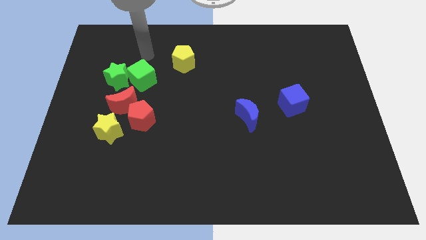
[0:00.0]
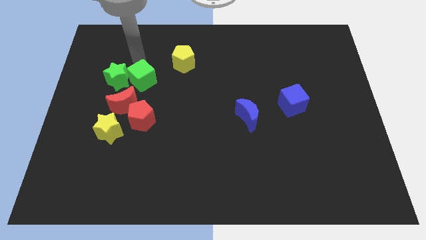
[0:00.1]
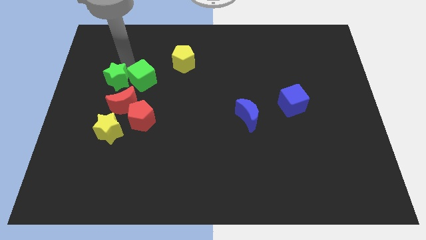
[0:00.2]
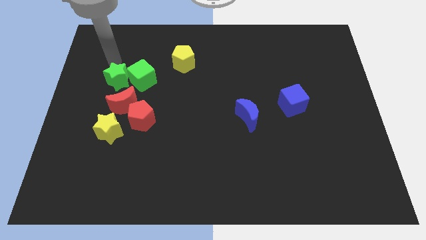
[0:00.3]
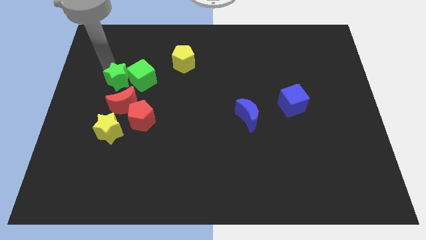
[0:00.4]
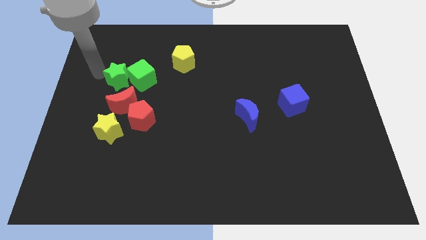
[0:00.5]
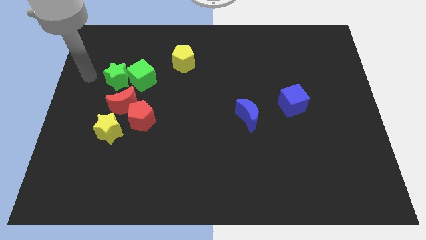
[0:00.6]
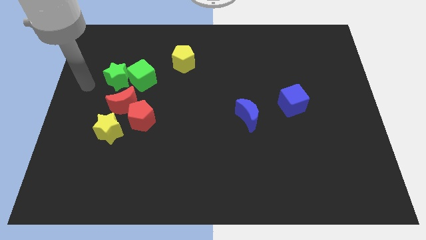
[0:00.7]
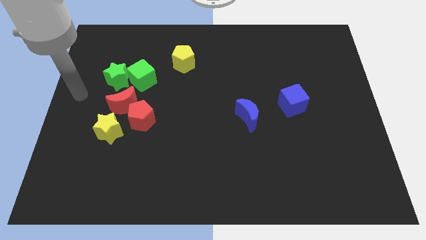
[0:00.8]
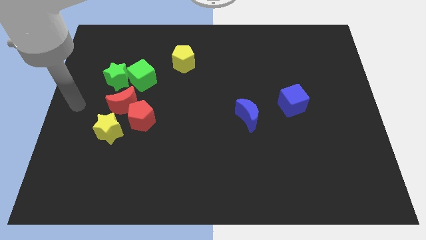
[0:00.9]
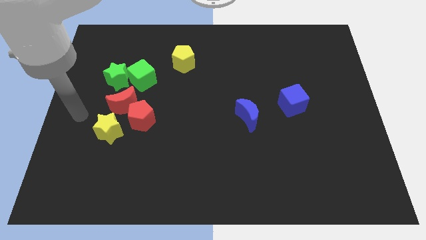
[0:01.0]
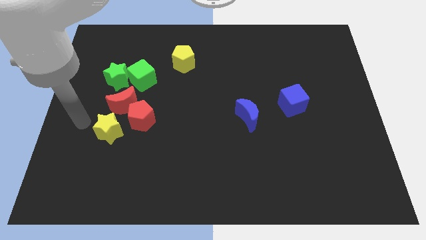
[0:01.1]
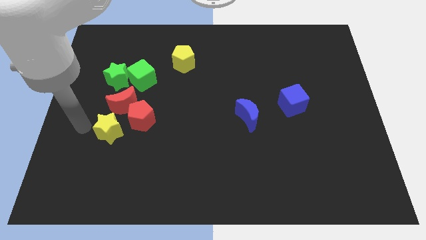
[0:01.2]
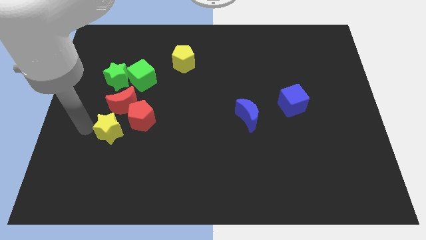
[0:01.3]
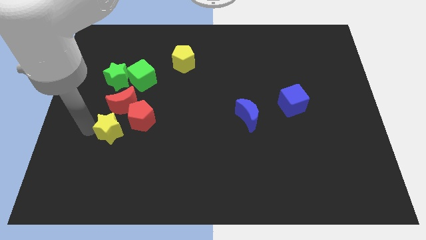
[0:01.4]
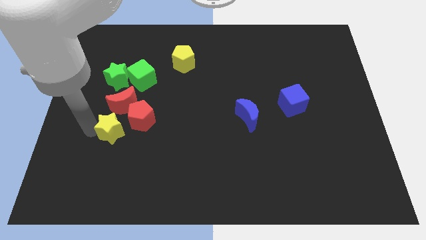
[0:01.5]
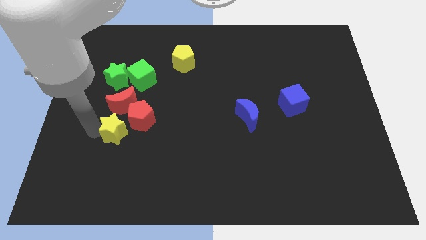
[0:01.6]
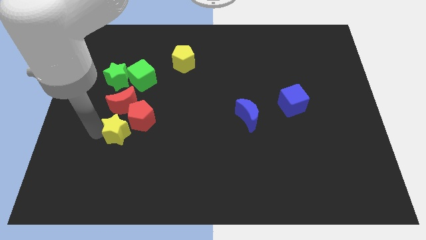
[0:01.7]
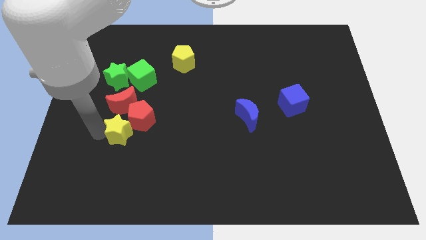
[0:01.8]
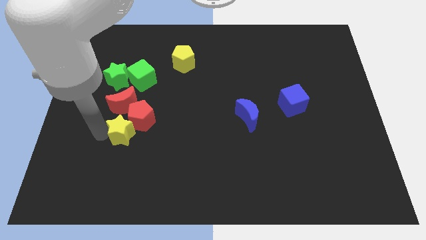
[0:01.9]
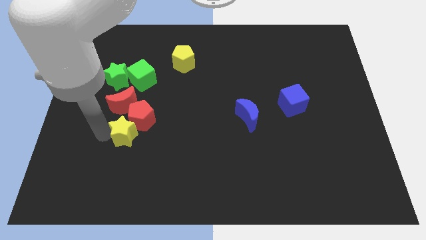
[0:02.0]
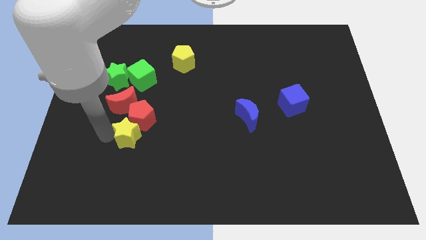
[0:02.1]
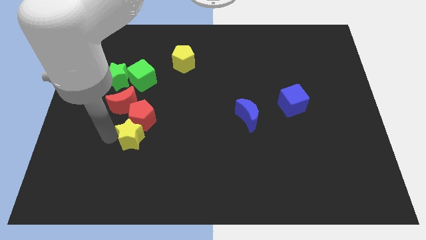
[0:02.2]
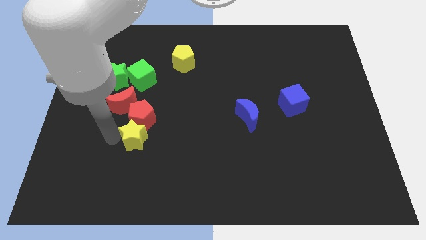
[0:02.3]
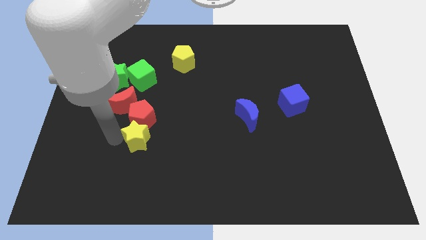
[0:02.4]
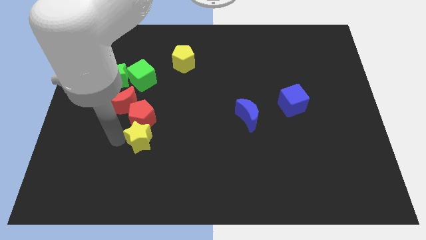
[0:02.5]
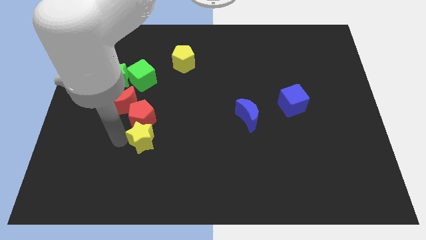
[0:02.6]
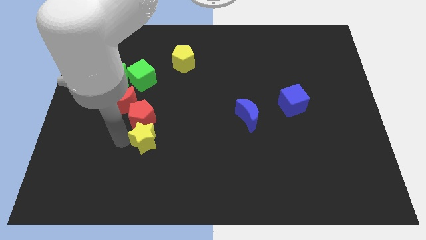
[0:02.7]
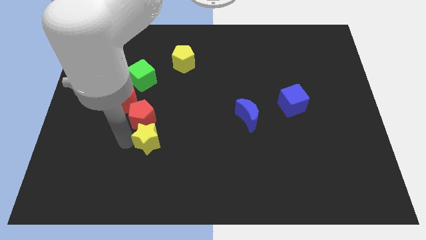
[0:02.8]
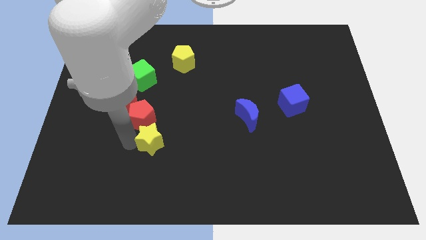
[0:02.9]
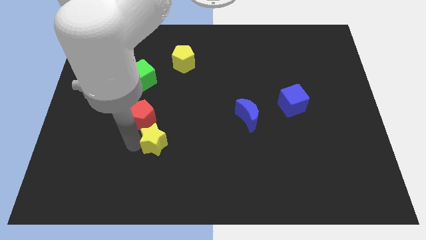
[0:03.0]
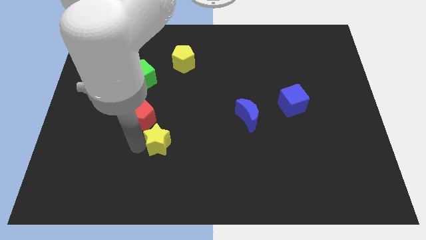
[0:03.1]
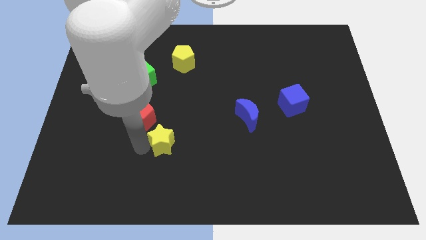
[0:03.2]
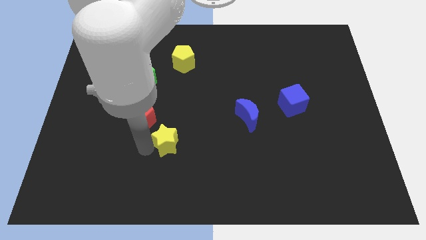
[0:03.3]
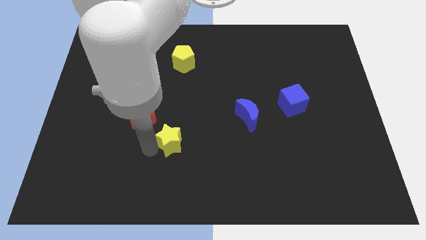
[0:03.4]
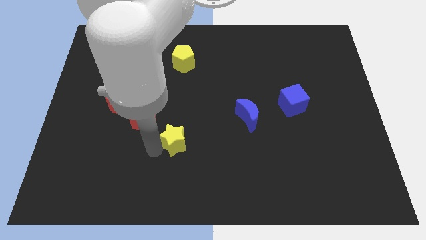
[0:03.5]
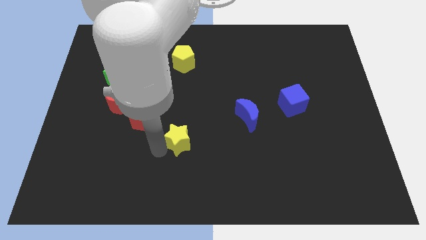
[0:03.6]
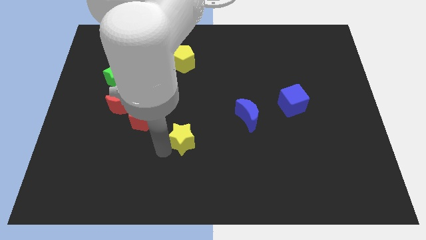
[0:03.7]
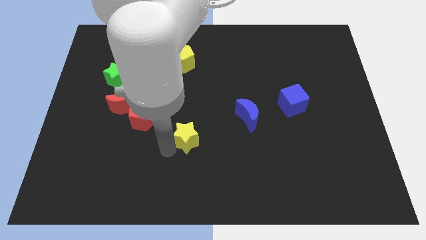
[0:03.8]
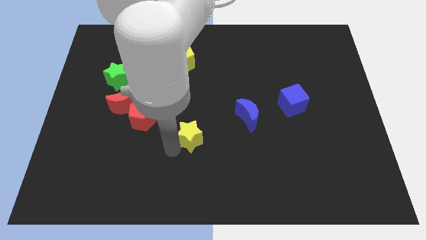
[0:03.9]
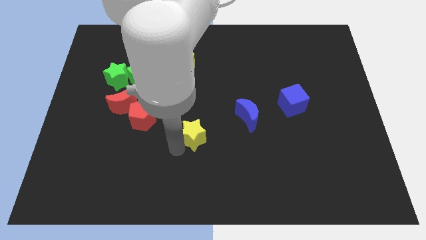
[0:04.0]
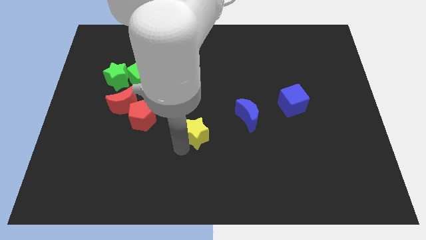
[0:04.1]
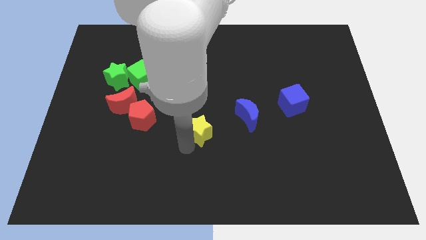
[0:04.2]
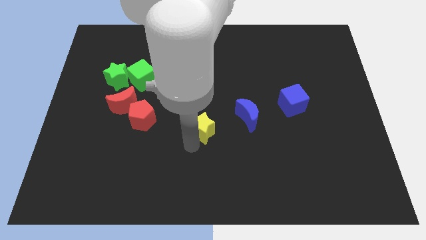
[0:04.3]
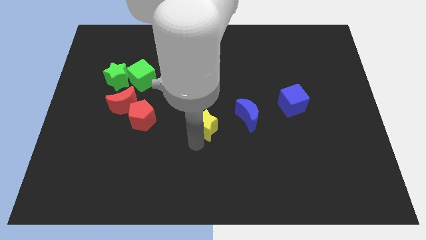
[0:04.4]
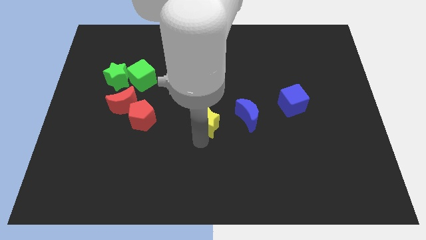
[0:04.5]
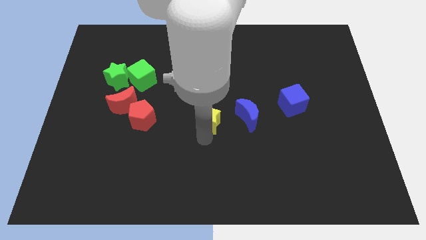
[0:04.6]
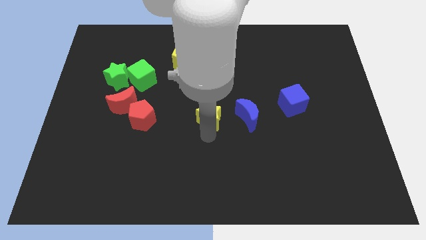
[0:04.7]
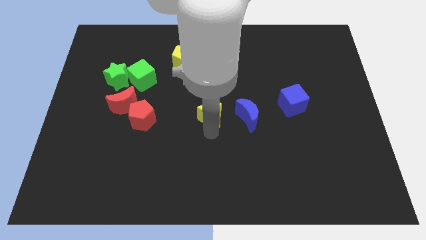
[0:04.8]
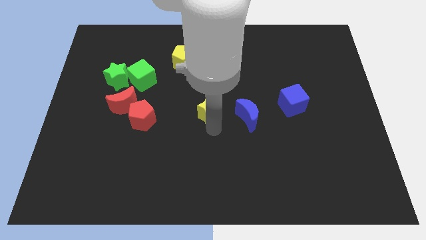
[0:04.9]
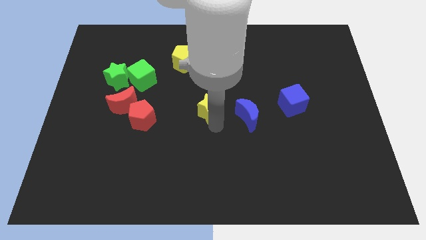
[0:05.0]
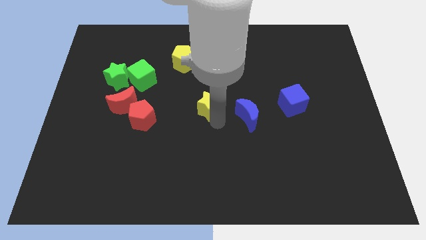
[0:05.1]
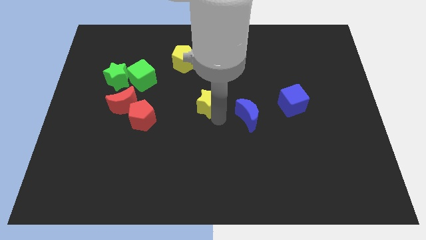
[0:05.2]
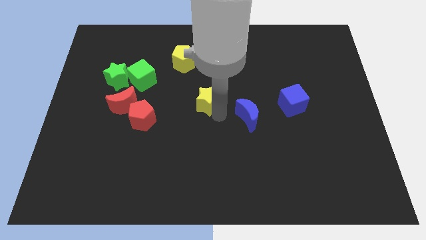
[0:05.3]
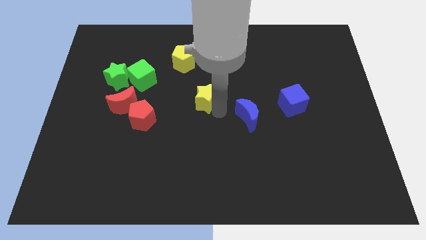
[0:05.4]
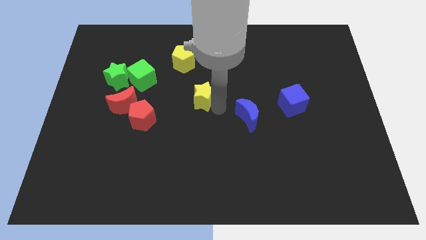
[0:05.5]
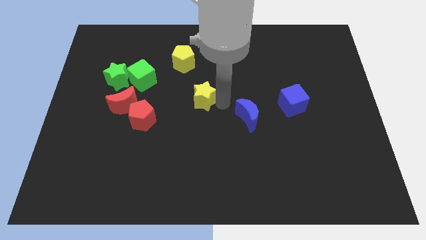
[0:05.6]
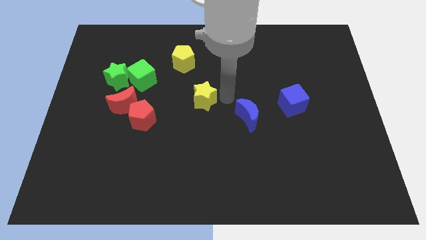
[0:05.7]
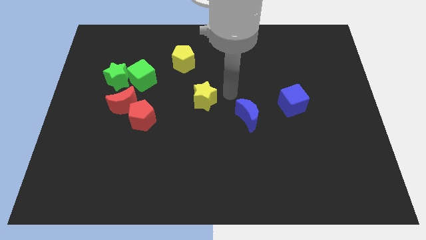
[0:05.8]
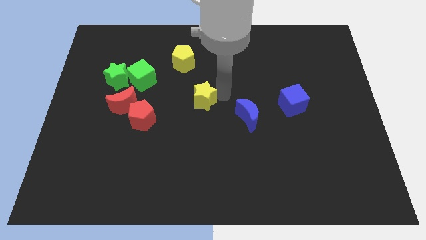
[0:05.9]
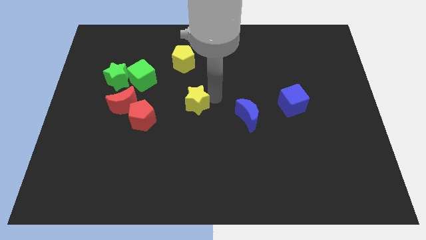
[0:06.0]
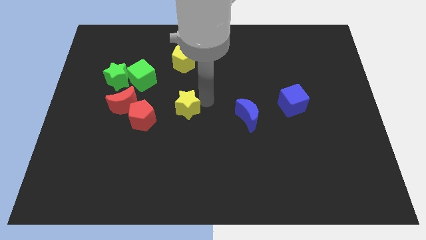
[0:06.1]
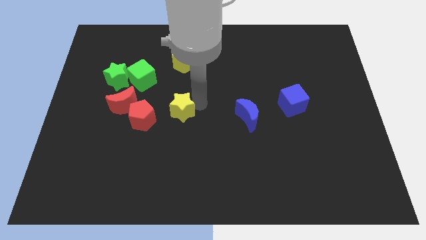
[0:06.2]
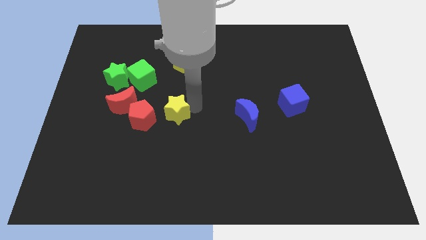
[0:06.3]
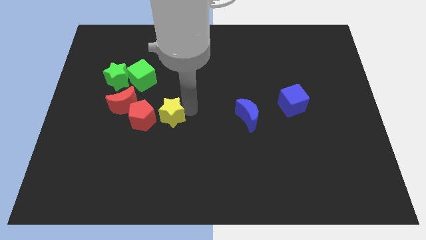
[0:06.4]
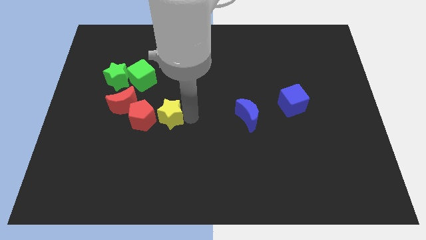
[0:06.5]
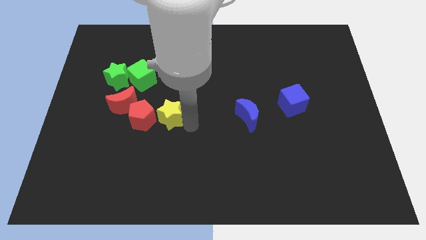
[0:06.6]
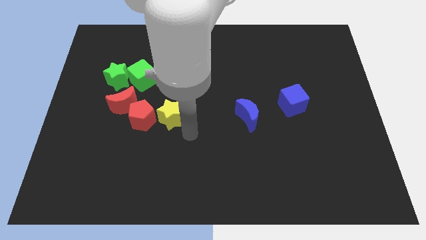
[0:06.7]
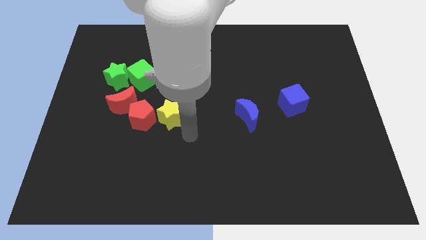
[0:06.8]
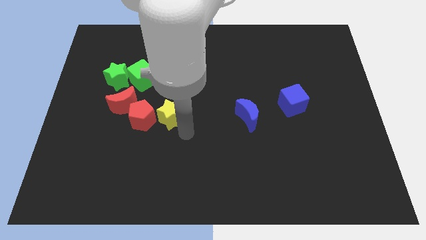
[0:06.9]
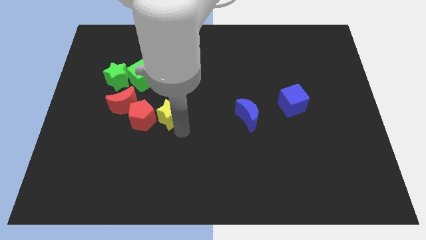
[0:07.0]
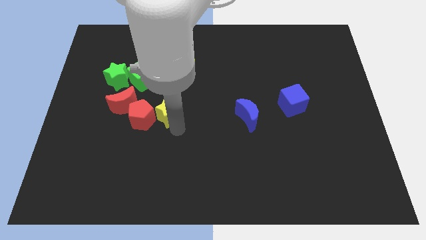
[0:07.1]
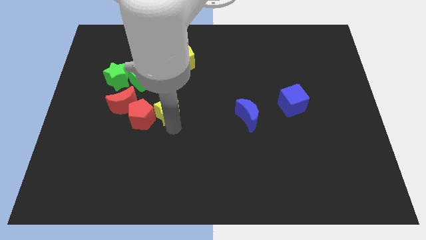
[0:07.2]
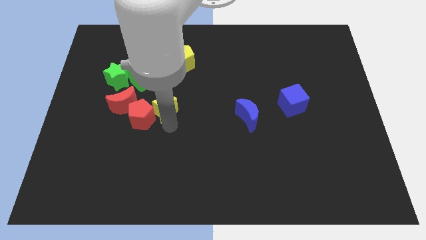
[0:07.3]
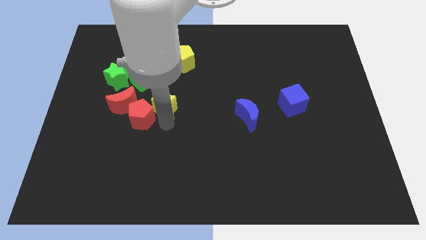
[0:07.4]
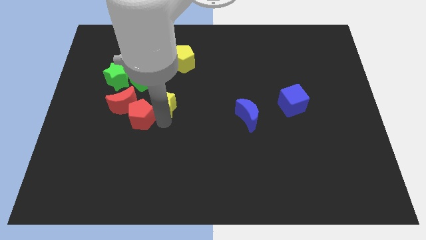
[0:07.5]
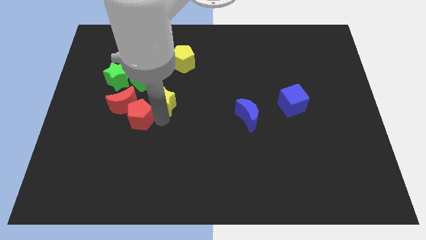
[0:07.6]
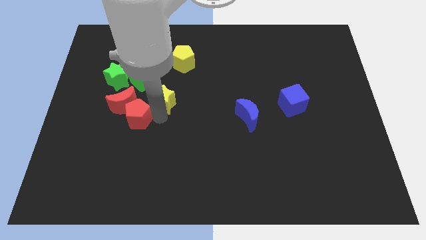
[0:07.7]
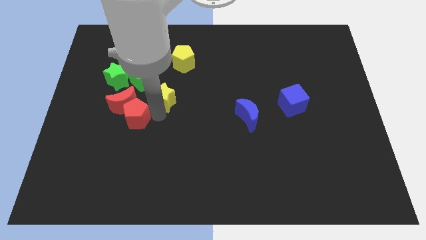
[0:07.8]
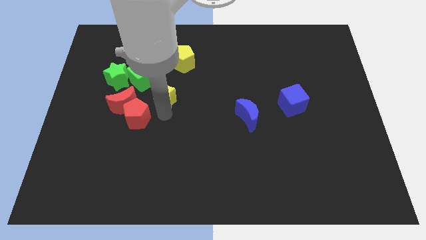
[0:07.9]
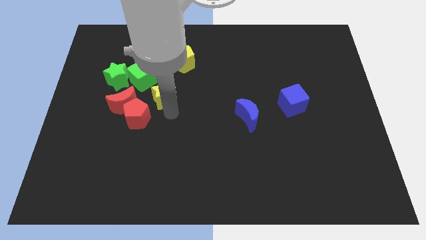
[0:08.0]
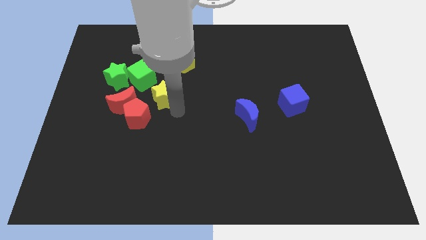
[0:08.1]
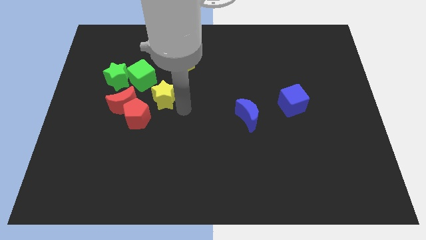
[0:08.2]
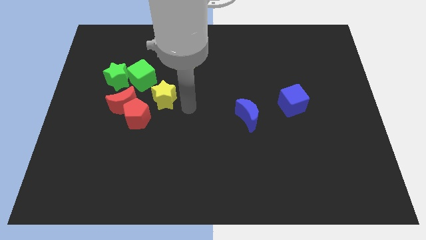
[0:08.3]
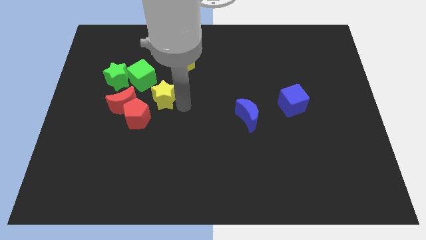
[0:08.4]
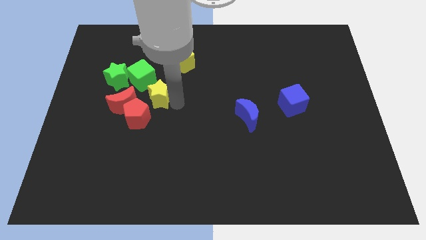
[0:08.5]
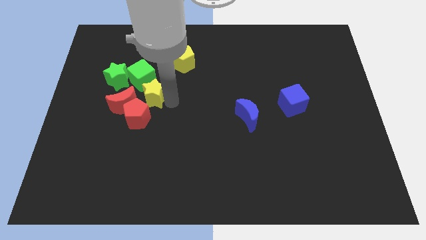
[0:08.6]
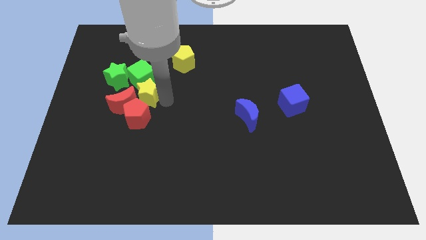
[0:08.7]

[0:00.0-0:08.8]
slide the yellow star close to the green cube
